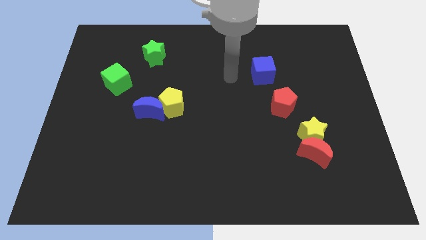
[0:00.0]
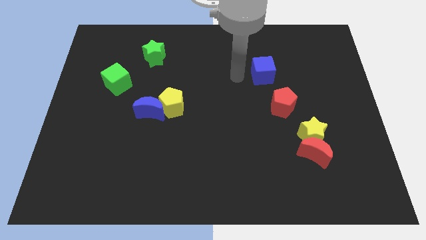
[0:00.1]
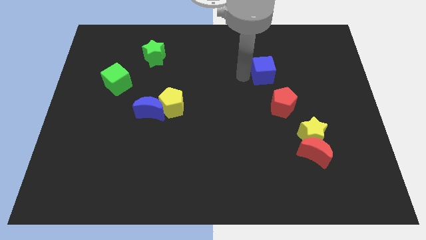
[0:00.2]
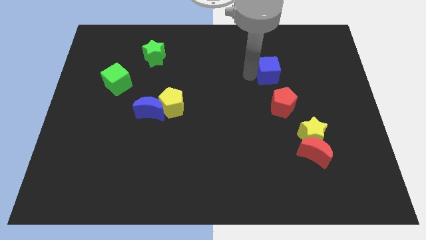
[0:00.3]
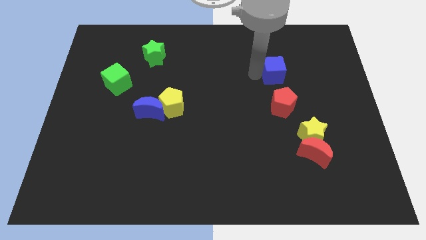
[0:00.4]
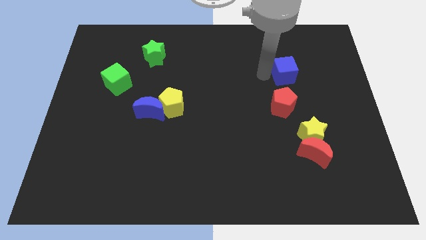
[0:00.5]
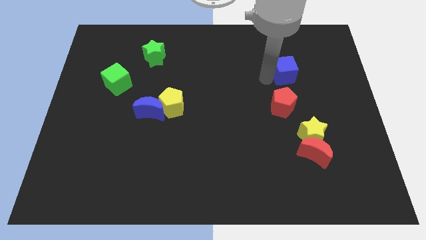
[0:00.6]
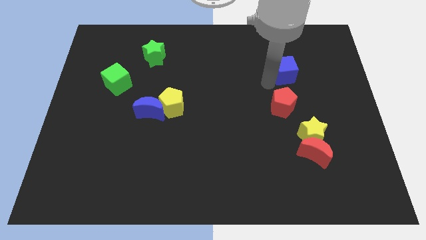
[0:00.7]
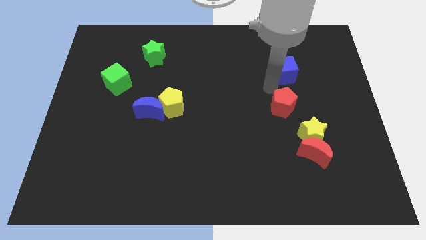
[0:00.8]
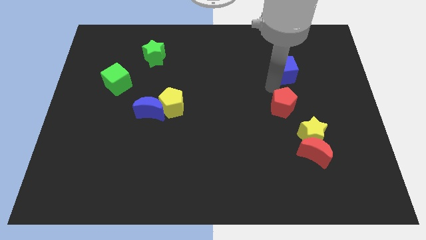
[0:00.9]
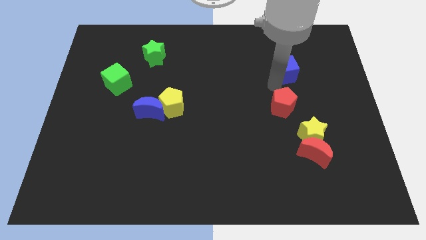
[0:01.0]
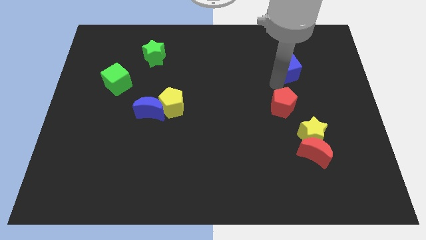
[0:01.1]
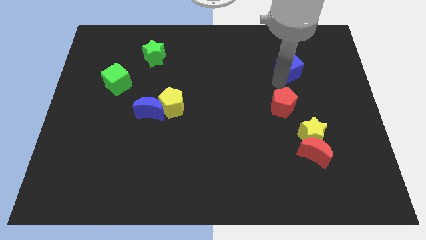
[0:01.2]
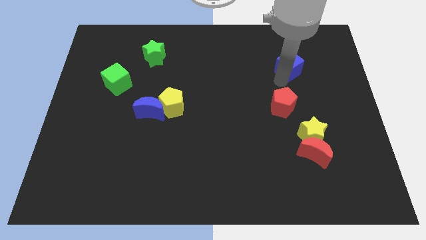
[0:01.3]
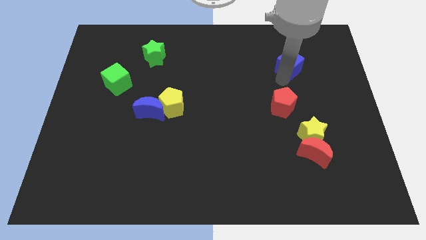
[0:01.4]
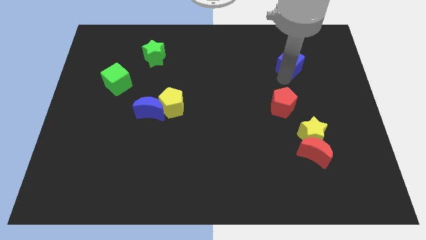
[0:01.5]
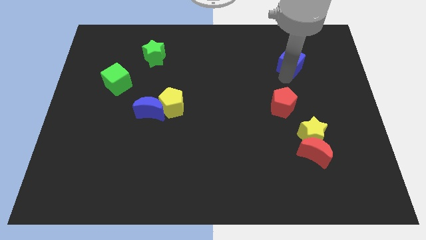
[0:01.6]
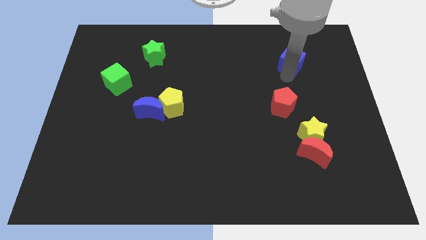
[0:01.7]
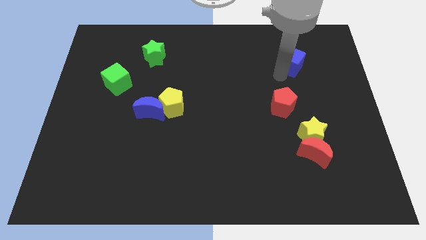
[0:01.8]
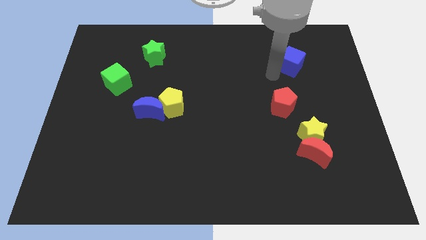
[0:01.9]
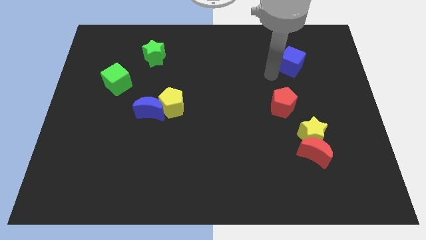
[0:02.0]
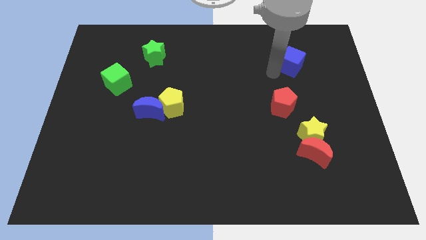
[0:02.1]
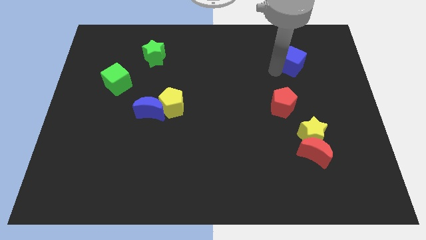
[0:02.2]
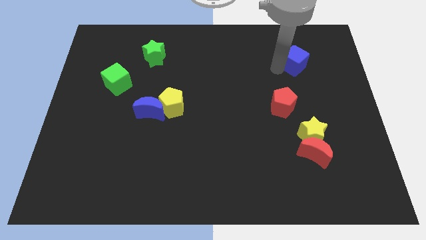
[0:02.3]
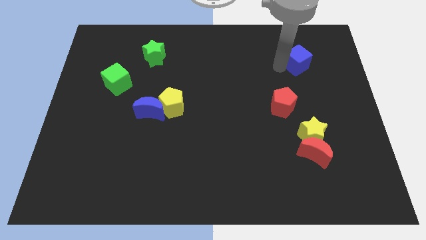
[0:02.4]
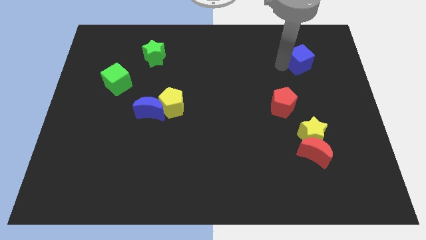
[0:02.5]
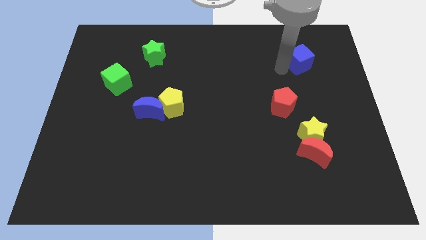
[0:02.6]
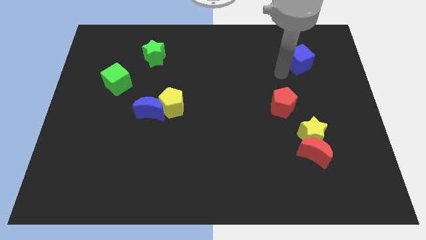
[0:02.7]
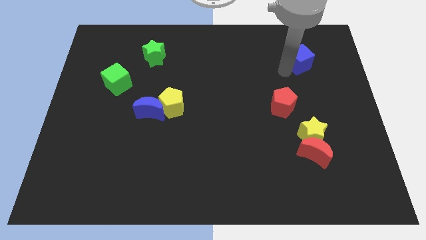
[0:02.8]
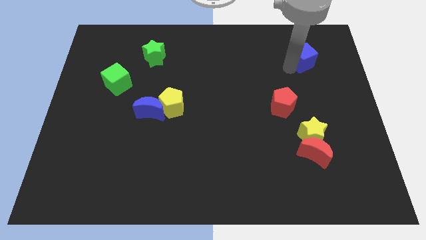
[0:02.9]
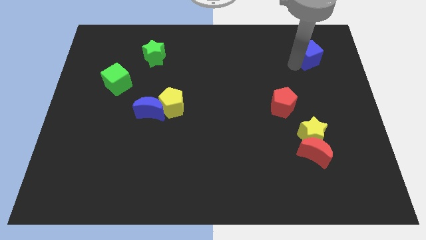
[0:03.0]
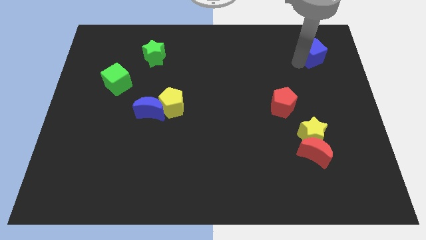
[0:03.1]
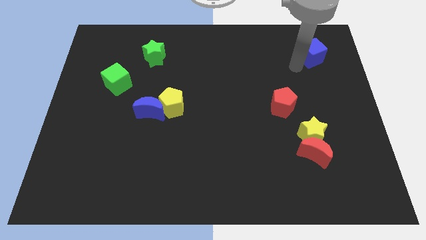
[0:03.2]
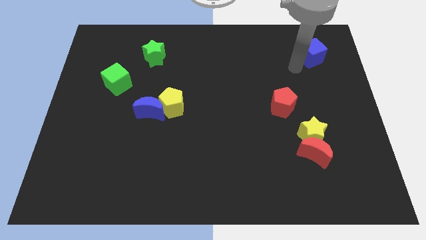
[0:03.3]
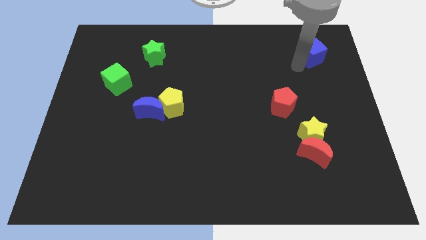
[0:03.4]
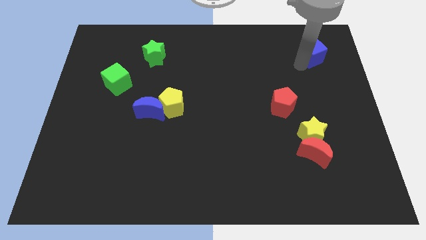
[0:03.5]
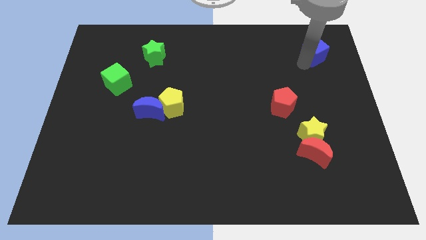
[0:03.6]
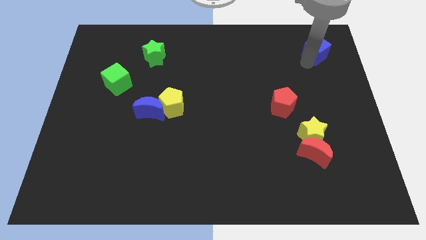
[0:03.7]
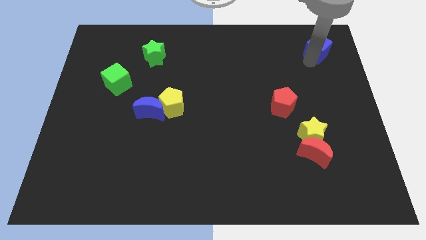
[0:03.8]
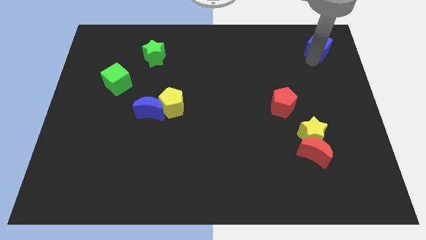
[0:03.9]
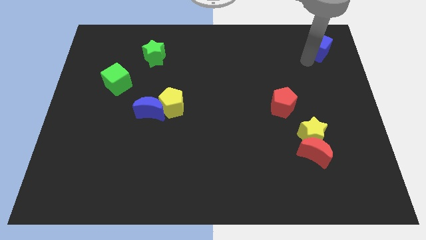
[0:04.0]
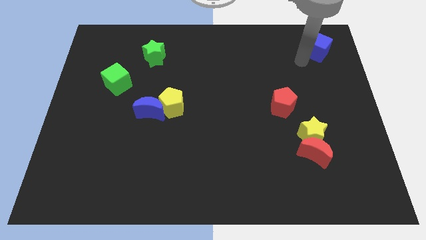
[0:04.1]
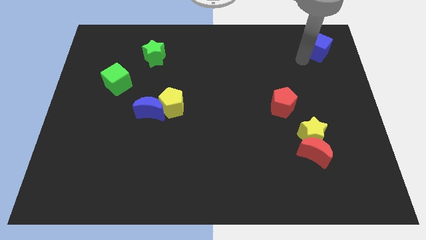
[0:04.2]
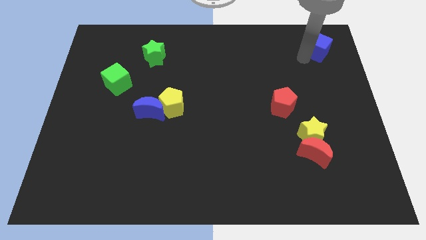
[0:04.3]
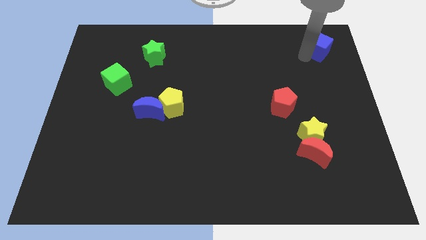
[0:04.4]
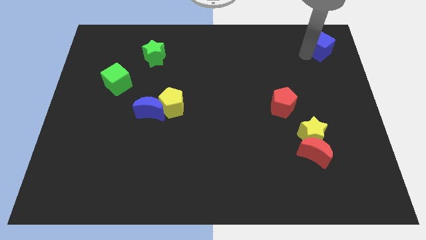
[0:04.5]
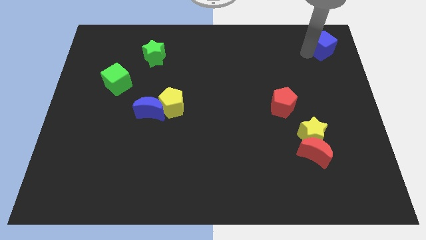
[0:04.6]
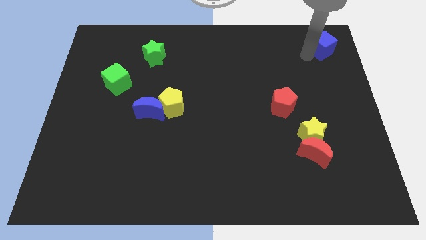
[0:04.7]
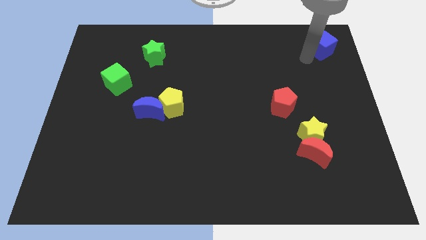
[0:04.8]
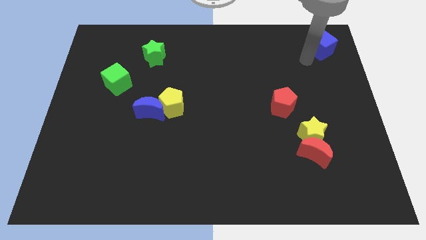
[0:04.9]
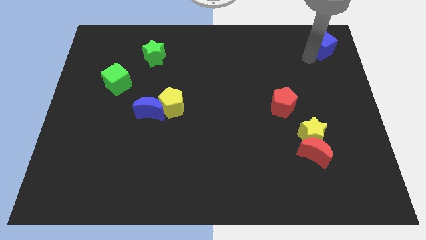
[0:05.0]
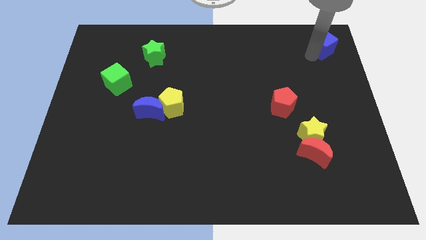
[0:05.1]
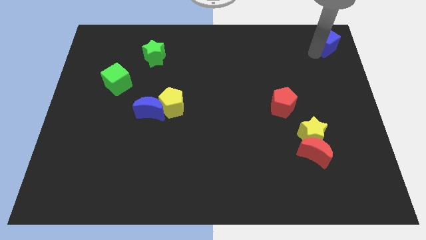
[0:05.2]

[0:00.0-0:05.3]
slide the blue cube to the top right corner

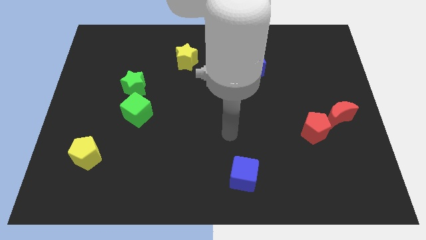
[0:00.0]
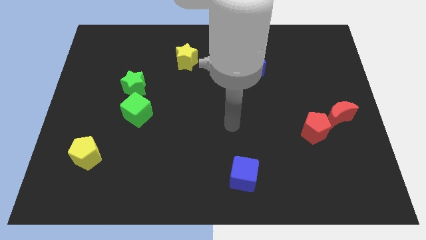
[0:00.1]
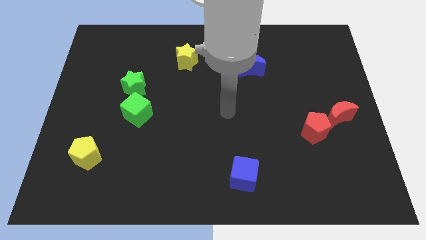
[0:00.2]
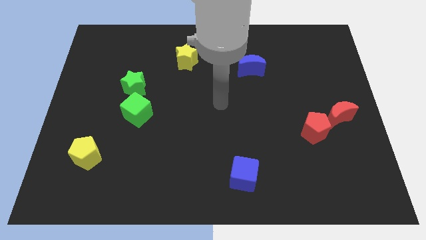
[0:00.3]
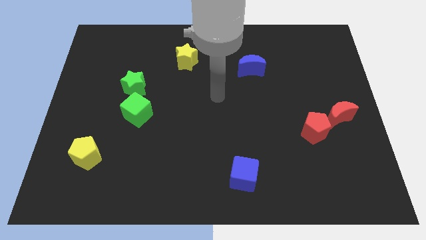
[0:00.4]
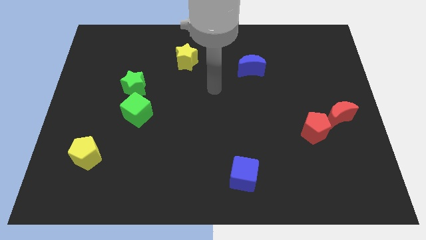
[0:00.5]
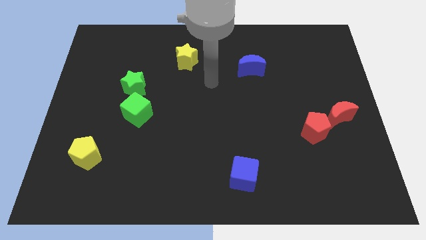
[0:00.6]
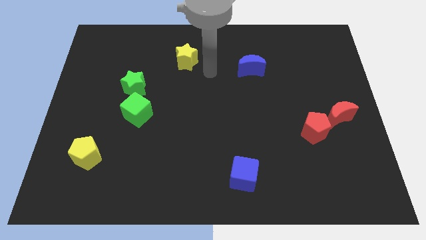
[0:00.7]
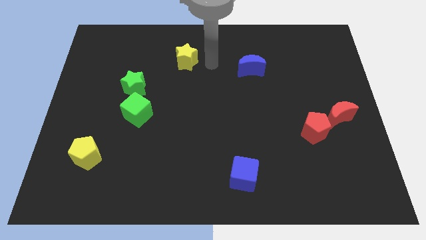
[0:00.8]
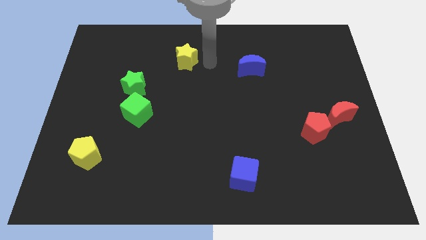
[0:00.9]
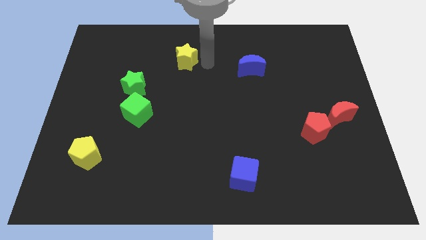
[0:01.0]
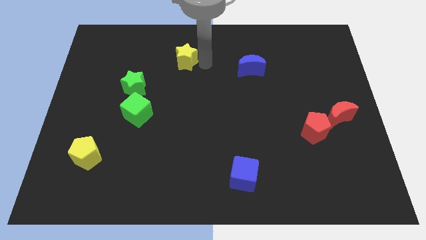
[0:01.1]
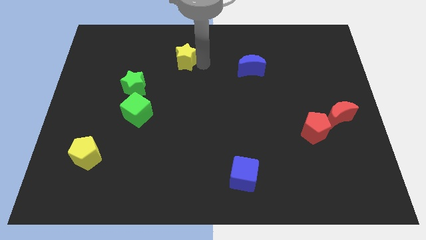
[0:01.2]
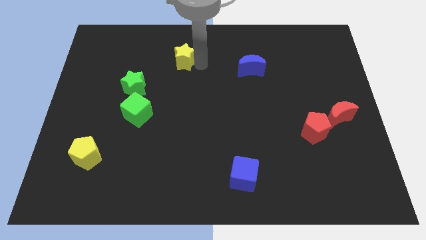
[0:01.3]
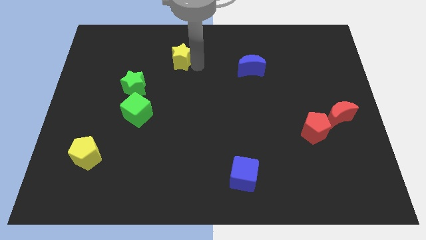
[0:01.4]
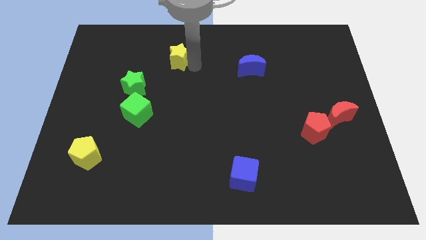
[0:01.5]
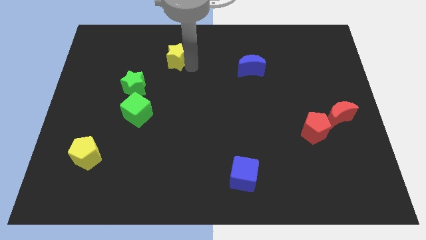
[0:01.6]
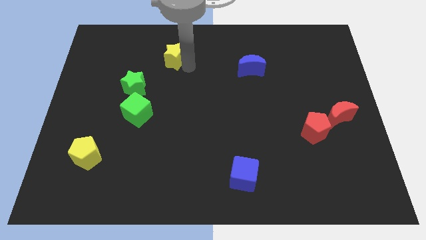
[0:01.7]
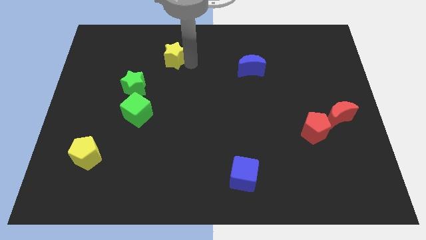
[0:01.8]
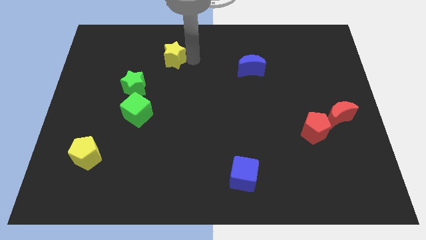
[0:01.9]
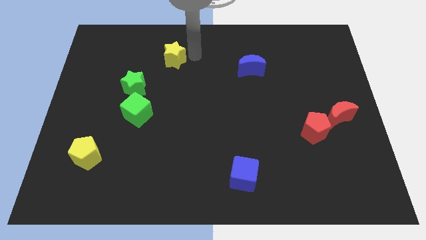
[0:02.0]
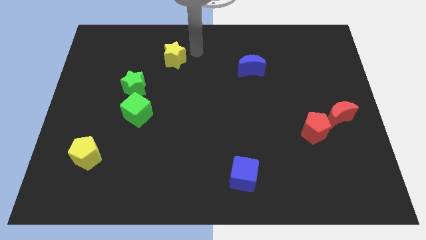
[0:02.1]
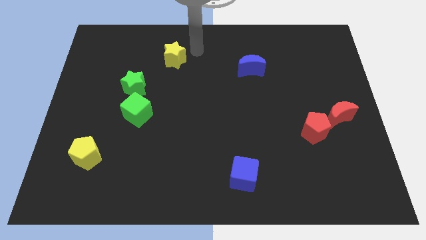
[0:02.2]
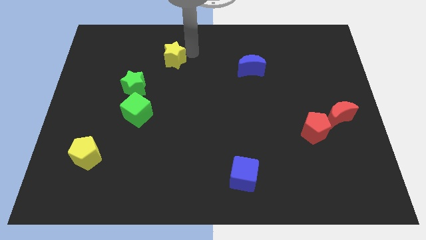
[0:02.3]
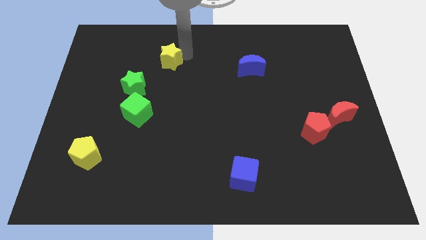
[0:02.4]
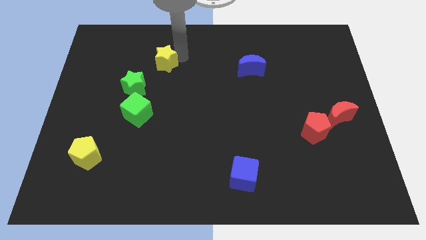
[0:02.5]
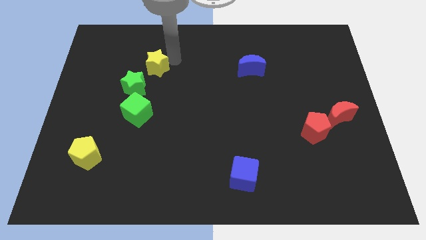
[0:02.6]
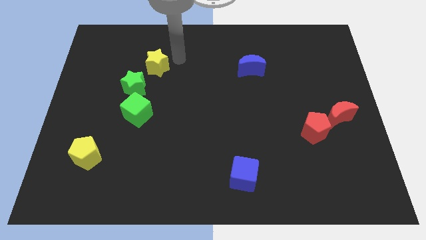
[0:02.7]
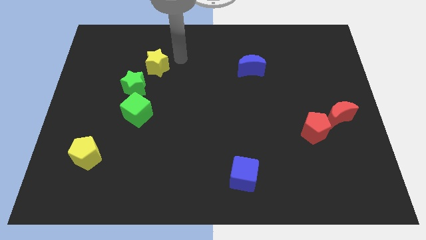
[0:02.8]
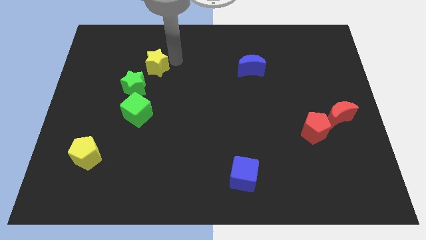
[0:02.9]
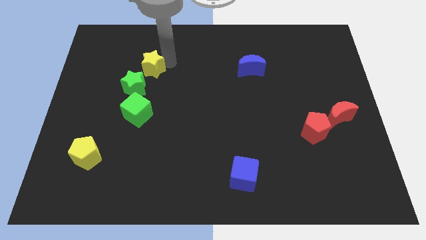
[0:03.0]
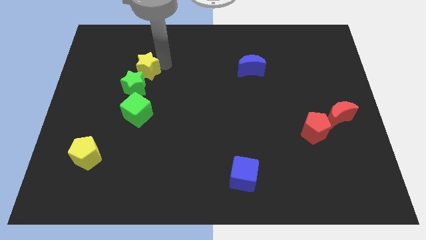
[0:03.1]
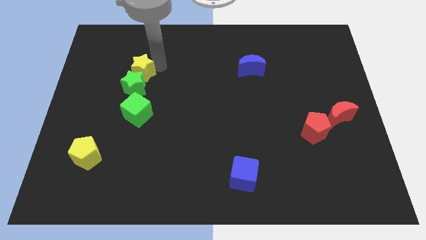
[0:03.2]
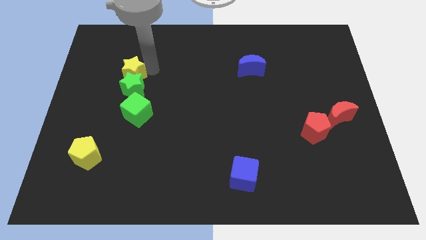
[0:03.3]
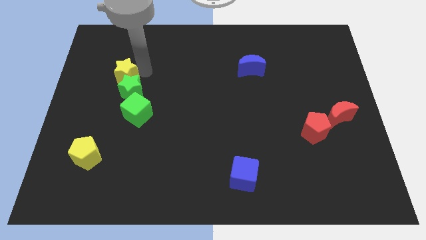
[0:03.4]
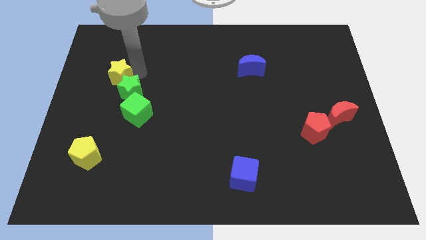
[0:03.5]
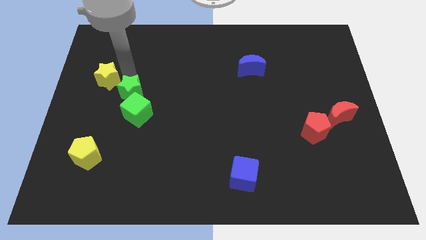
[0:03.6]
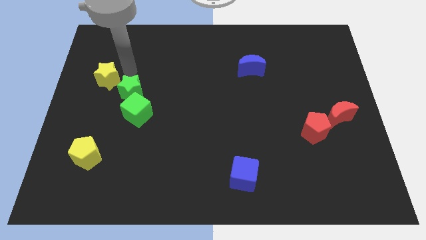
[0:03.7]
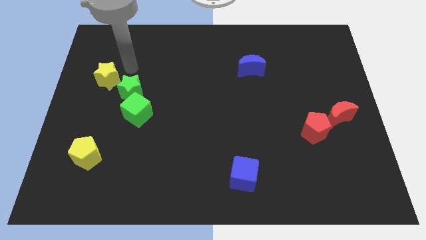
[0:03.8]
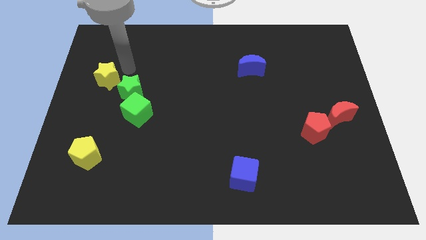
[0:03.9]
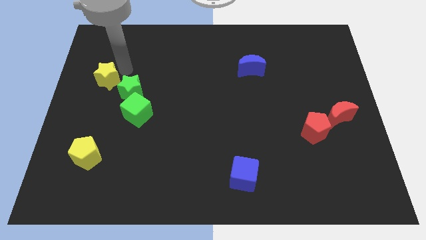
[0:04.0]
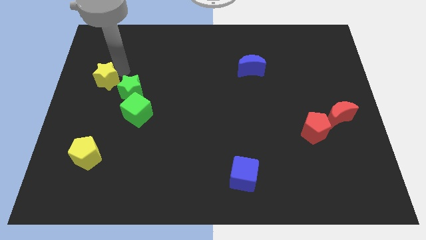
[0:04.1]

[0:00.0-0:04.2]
put the yellow star to the center left
